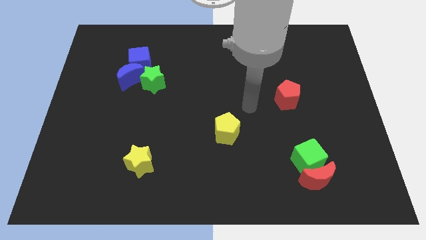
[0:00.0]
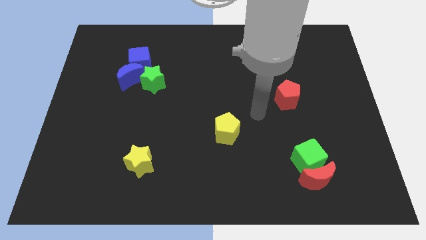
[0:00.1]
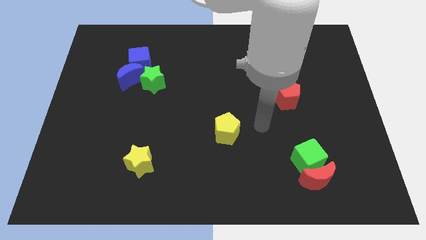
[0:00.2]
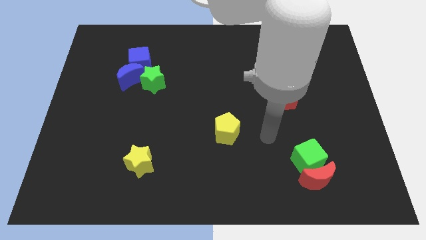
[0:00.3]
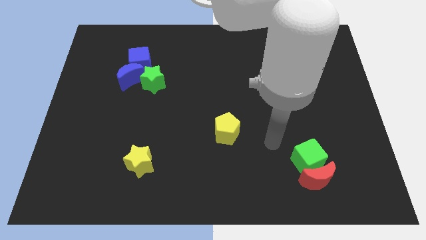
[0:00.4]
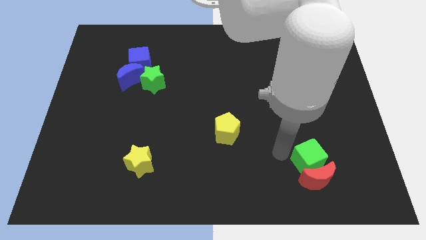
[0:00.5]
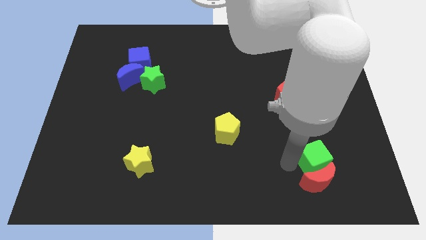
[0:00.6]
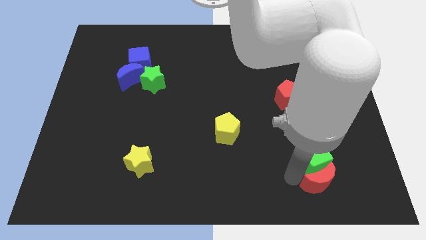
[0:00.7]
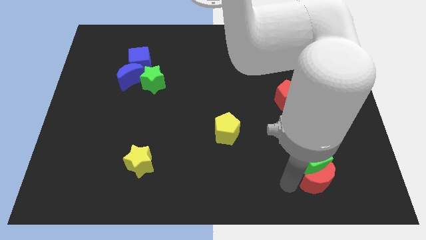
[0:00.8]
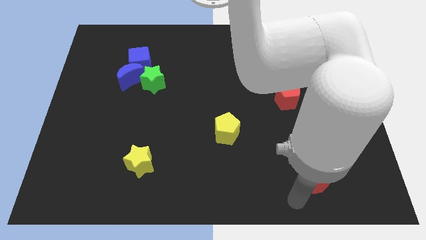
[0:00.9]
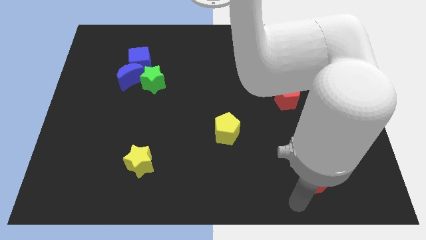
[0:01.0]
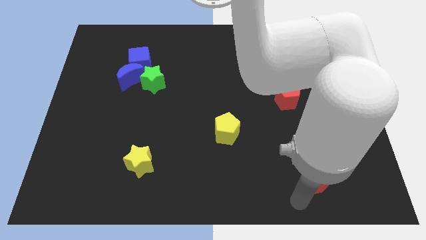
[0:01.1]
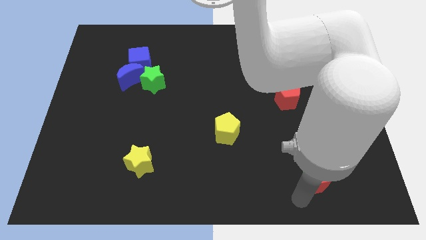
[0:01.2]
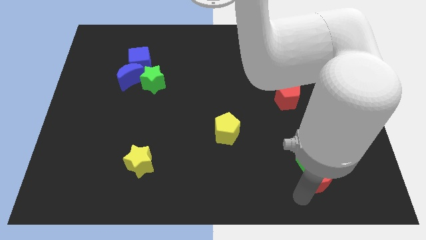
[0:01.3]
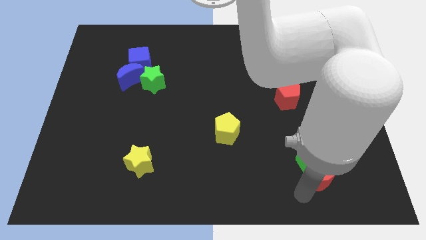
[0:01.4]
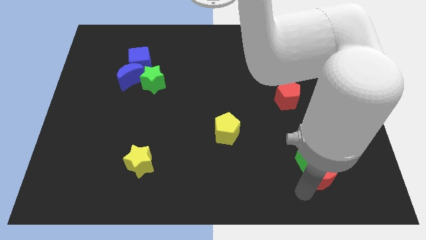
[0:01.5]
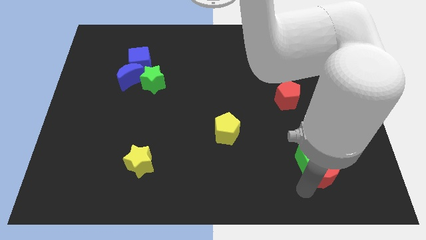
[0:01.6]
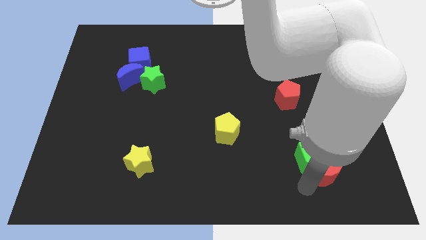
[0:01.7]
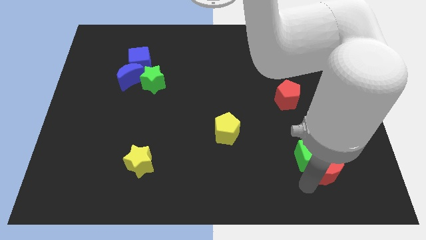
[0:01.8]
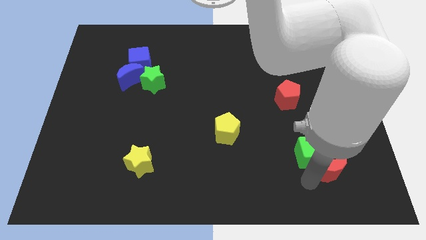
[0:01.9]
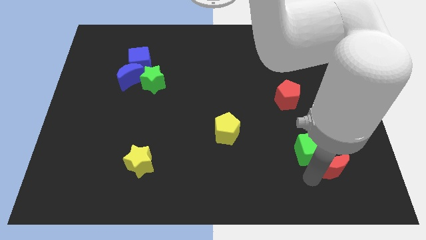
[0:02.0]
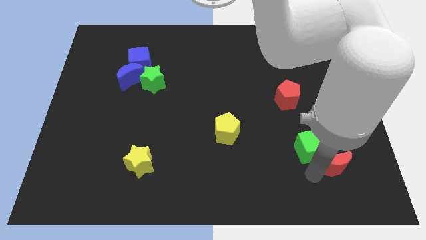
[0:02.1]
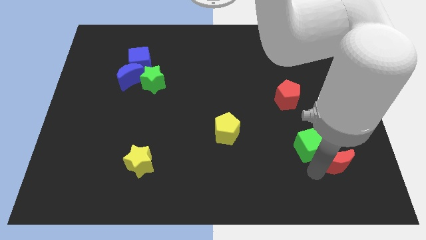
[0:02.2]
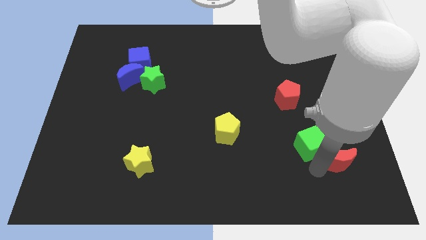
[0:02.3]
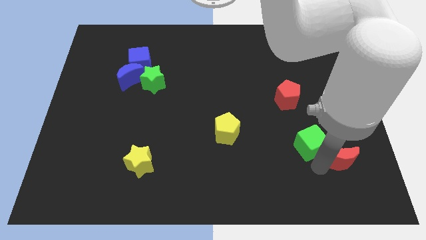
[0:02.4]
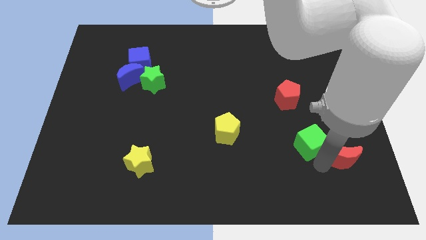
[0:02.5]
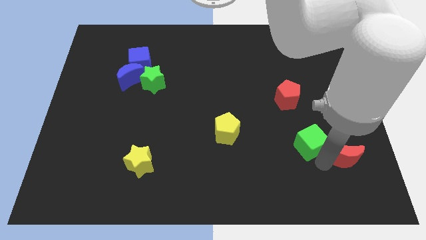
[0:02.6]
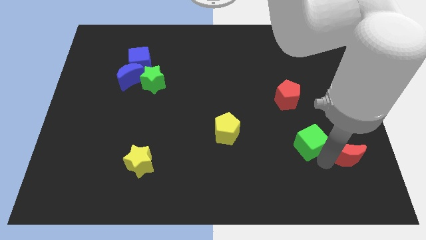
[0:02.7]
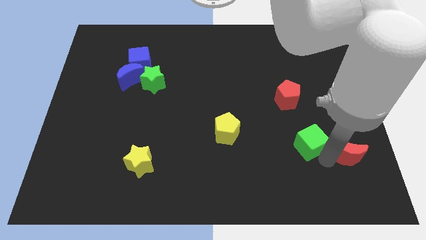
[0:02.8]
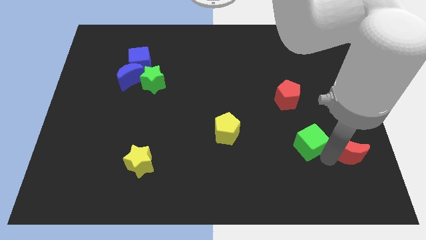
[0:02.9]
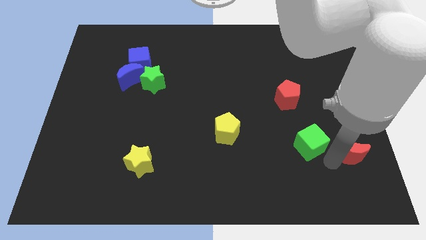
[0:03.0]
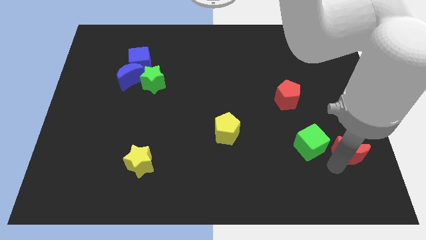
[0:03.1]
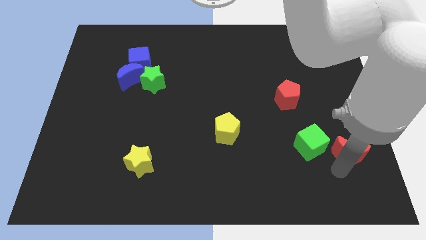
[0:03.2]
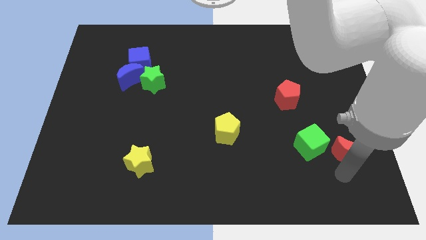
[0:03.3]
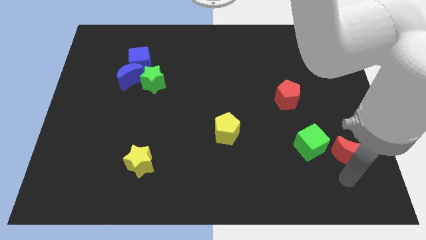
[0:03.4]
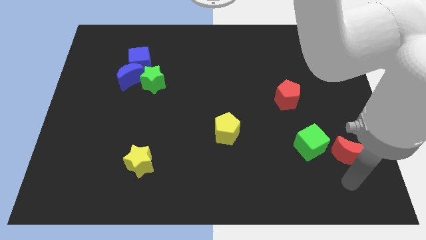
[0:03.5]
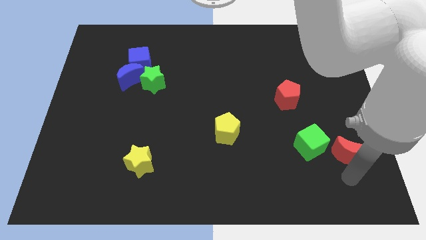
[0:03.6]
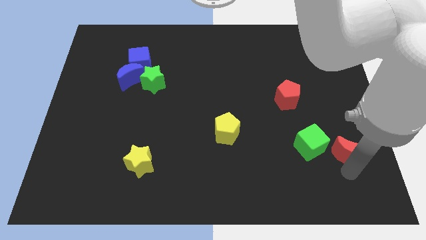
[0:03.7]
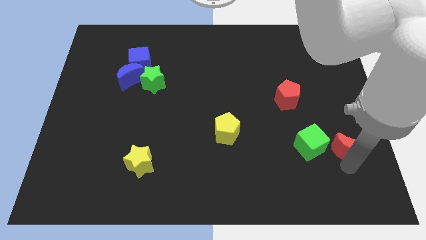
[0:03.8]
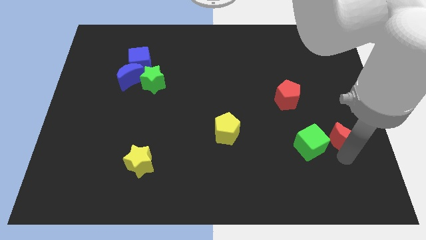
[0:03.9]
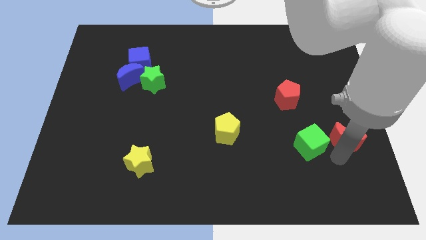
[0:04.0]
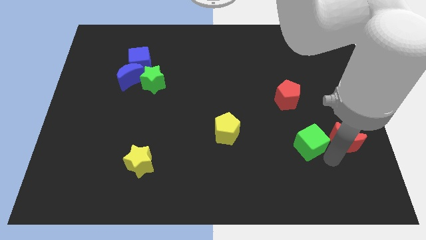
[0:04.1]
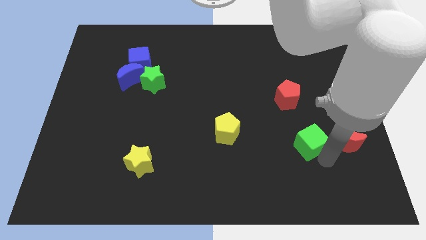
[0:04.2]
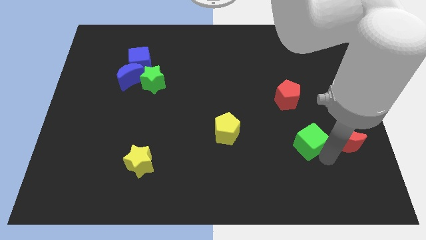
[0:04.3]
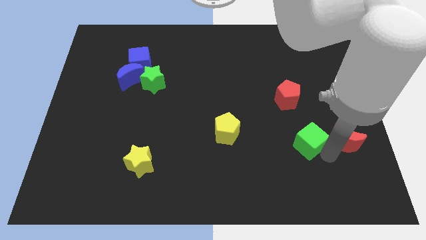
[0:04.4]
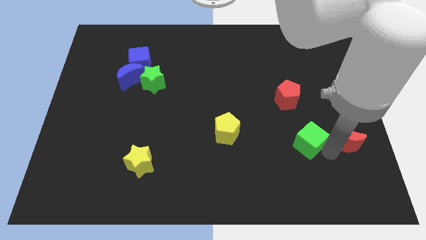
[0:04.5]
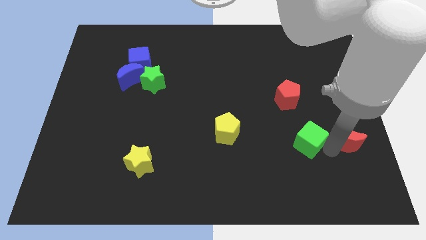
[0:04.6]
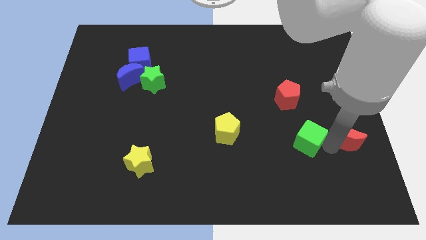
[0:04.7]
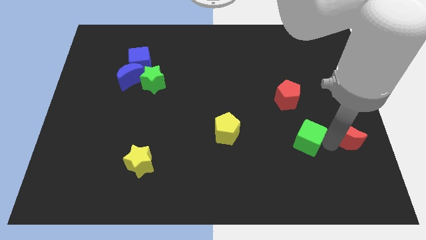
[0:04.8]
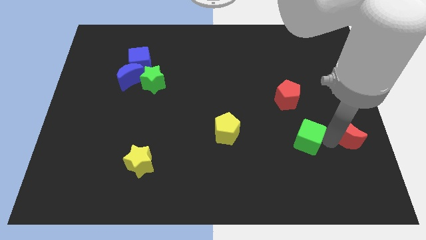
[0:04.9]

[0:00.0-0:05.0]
put the red moon to the center right

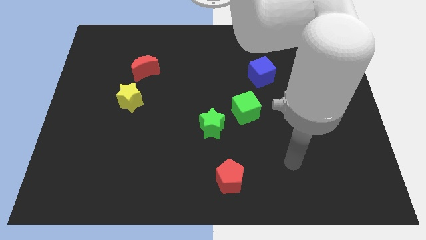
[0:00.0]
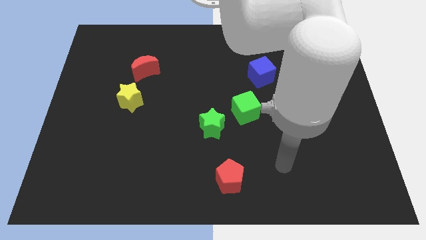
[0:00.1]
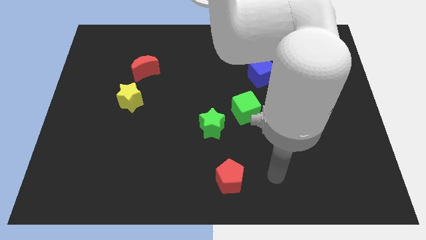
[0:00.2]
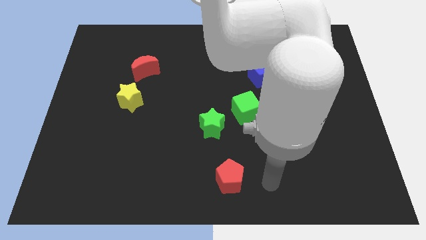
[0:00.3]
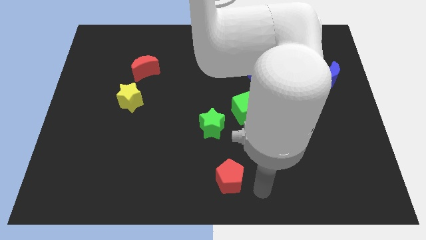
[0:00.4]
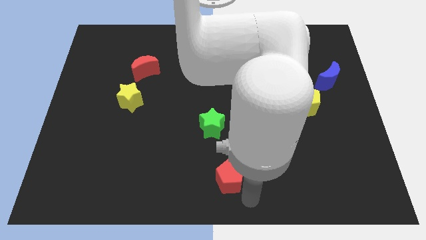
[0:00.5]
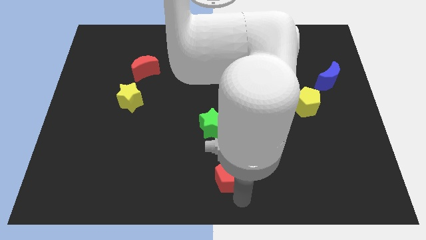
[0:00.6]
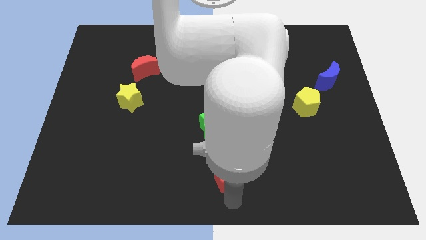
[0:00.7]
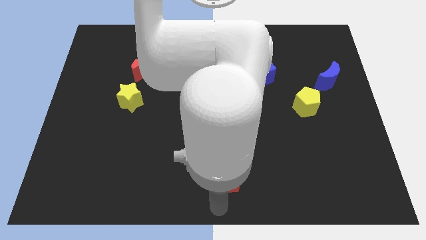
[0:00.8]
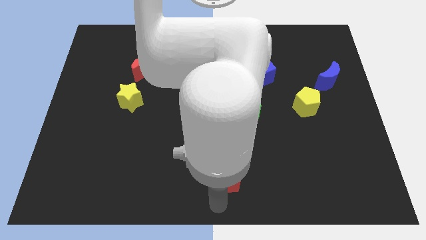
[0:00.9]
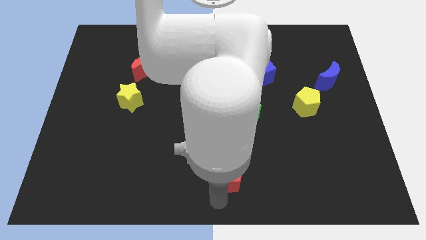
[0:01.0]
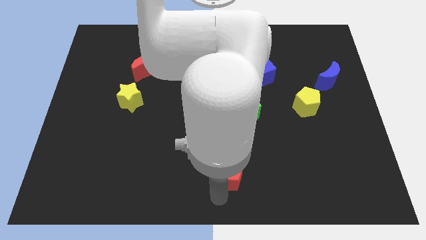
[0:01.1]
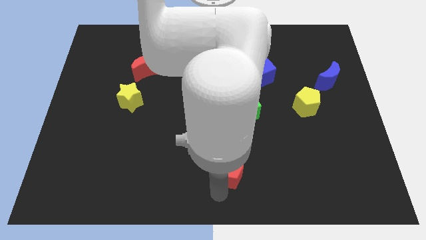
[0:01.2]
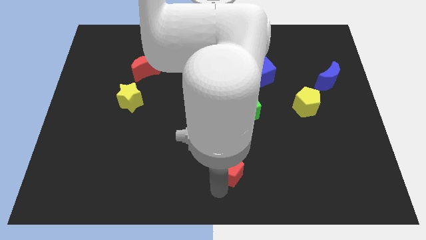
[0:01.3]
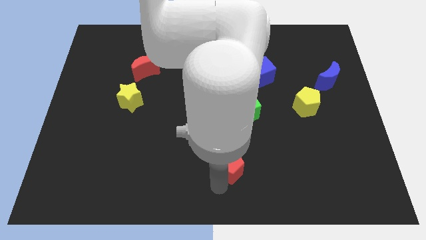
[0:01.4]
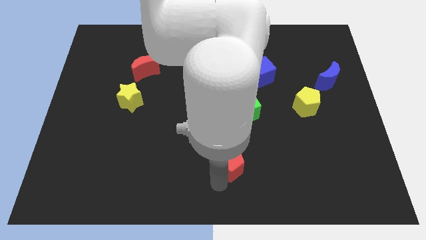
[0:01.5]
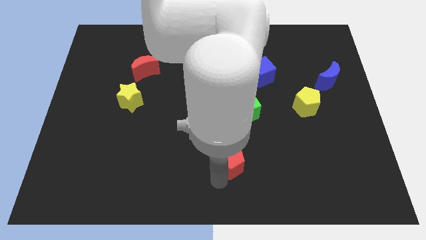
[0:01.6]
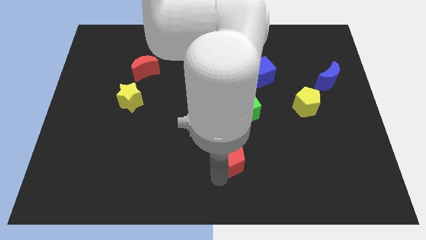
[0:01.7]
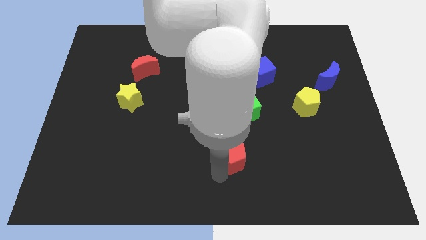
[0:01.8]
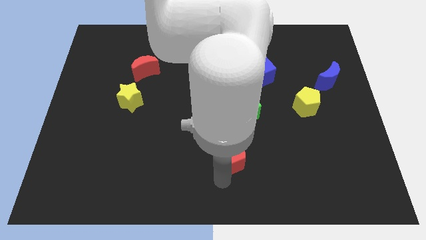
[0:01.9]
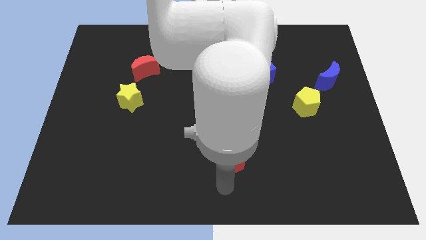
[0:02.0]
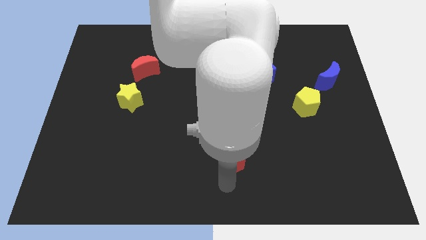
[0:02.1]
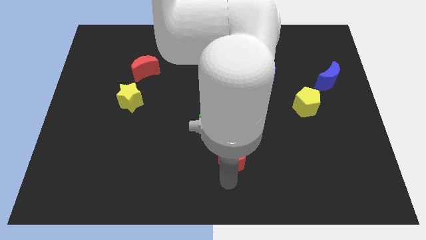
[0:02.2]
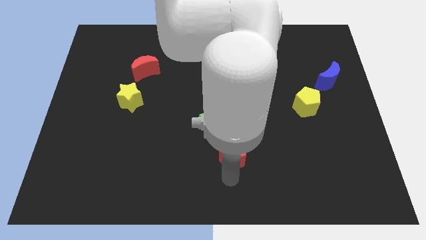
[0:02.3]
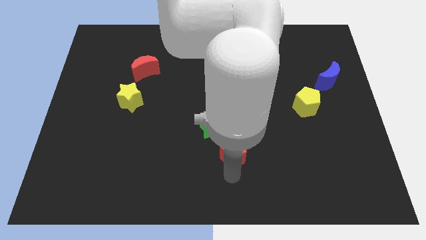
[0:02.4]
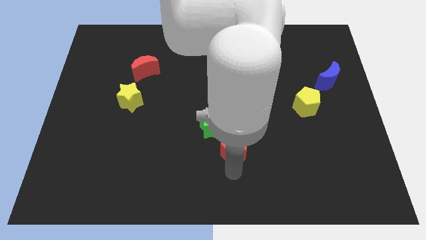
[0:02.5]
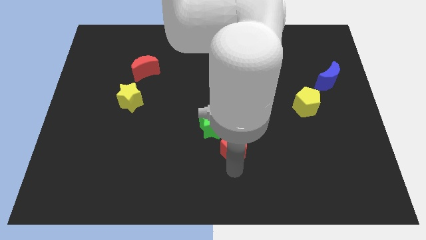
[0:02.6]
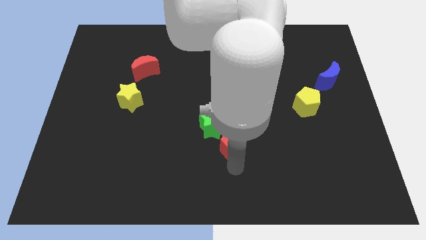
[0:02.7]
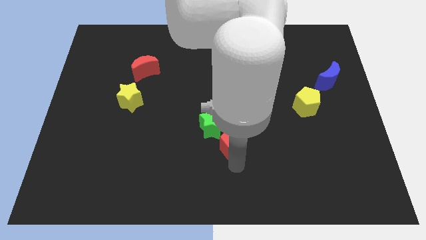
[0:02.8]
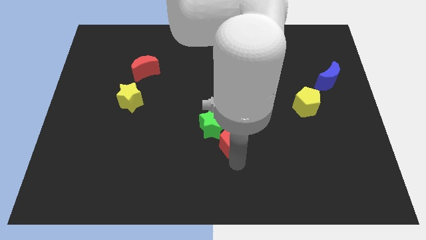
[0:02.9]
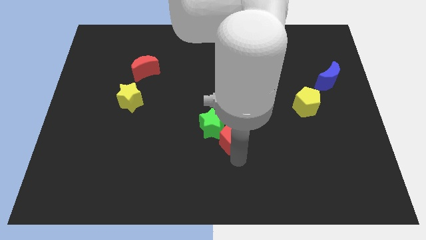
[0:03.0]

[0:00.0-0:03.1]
move the red pentagon to the center
